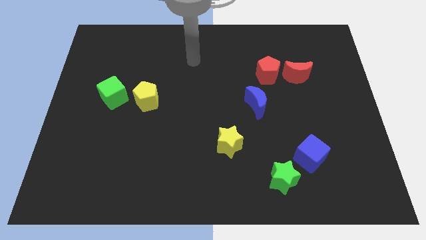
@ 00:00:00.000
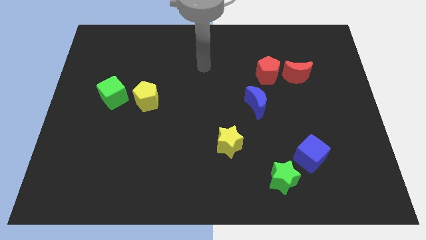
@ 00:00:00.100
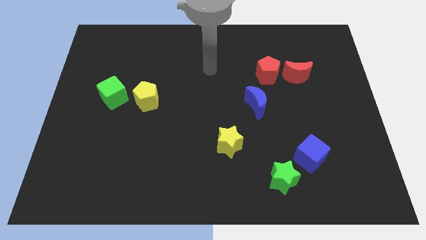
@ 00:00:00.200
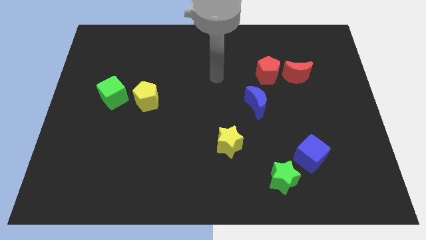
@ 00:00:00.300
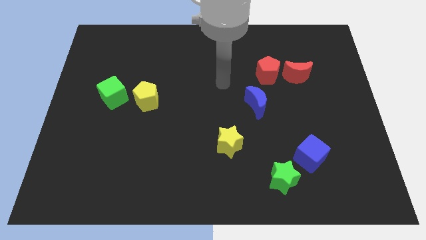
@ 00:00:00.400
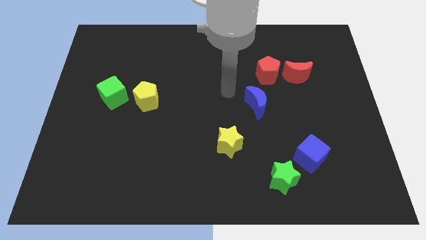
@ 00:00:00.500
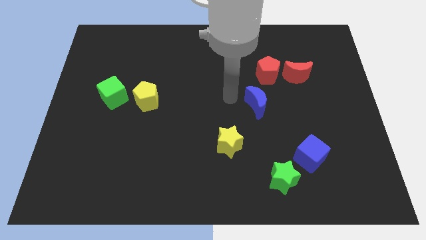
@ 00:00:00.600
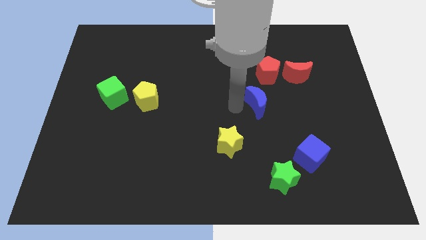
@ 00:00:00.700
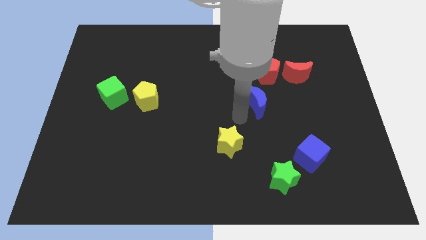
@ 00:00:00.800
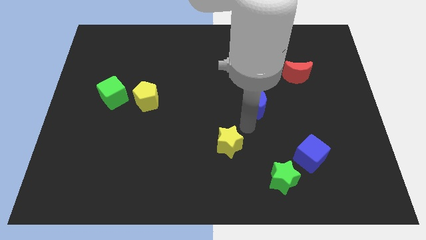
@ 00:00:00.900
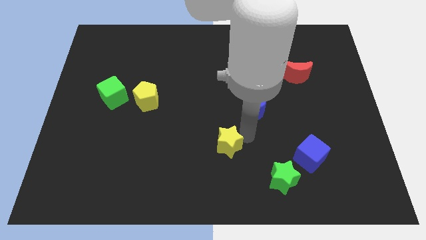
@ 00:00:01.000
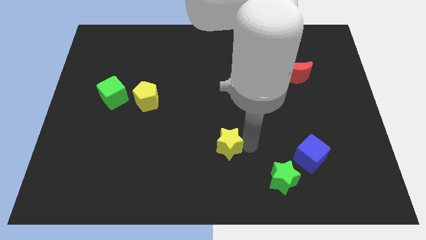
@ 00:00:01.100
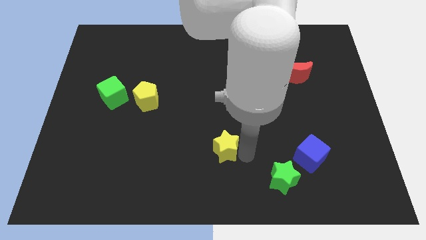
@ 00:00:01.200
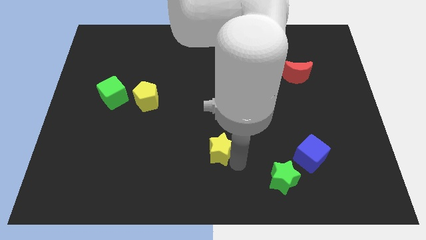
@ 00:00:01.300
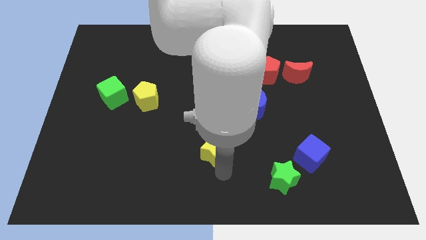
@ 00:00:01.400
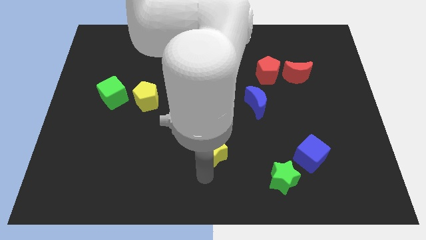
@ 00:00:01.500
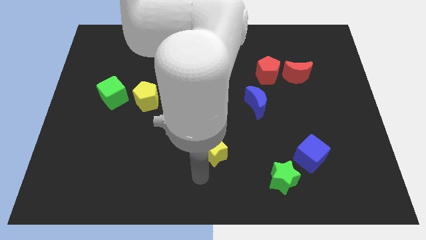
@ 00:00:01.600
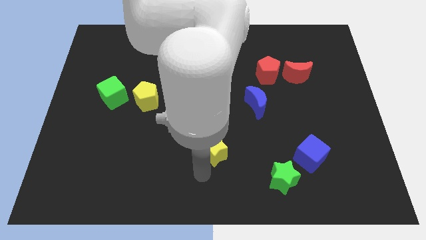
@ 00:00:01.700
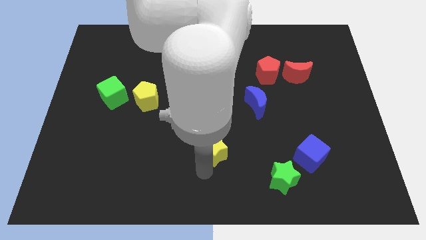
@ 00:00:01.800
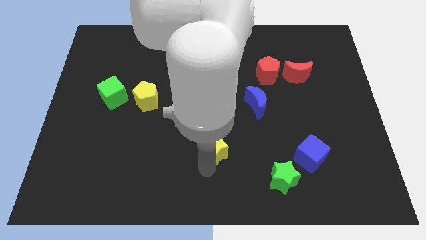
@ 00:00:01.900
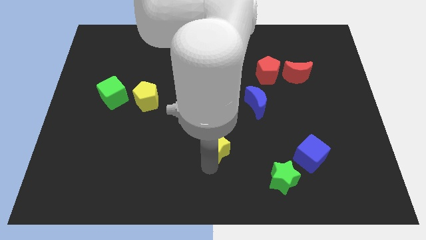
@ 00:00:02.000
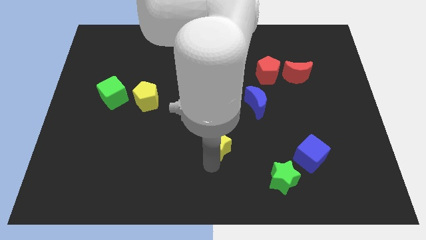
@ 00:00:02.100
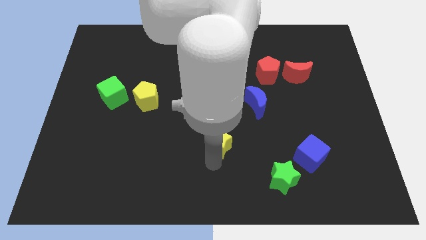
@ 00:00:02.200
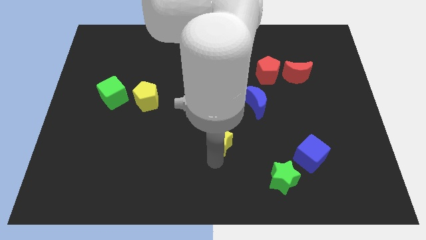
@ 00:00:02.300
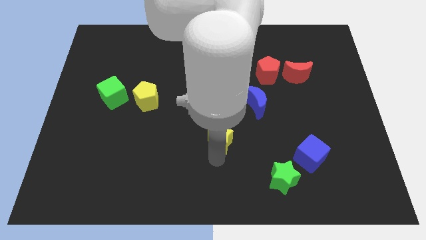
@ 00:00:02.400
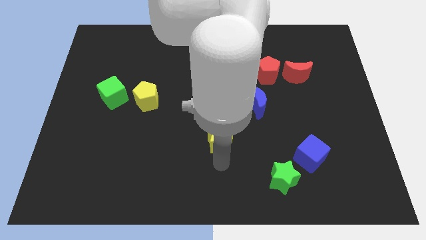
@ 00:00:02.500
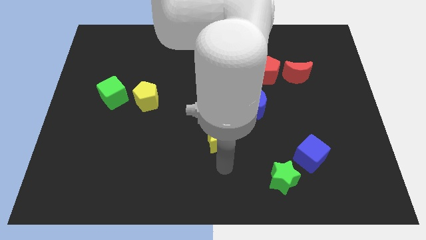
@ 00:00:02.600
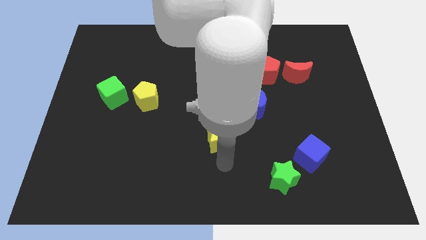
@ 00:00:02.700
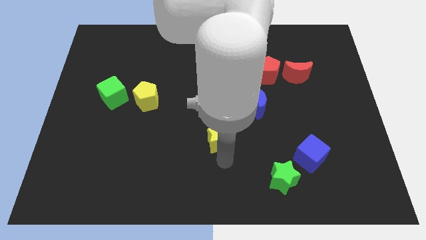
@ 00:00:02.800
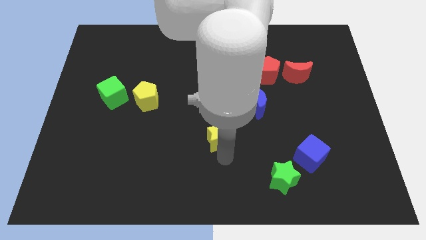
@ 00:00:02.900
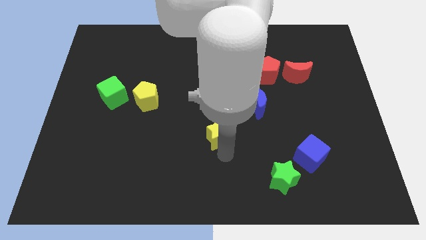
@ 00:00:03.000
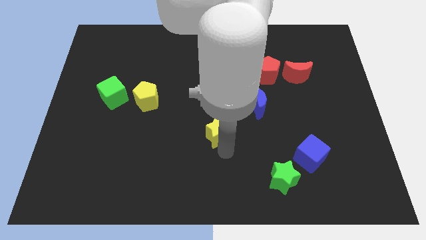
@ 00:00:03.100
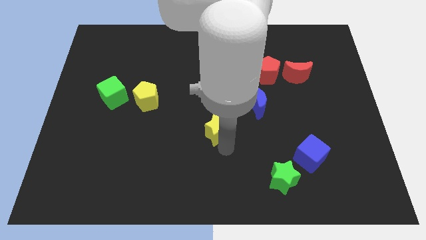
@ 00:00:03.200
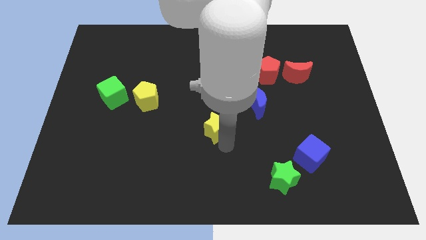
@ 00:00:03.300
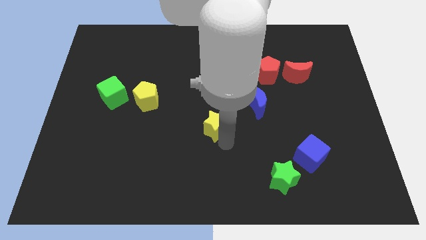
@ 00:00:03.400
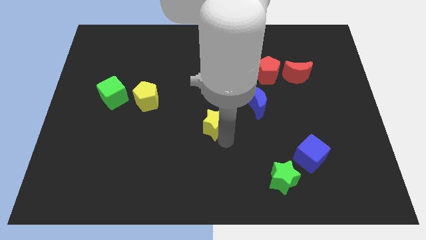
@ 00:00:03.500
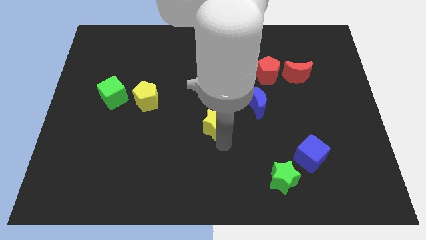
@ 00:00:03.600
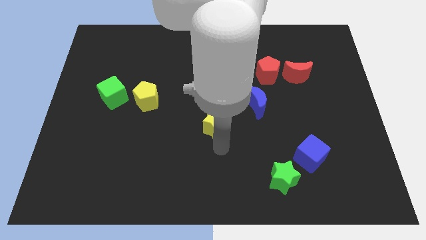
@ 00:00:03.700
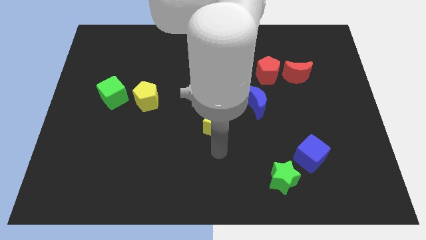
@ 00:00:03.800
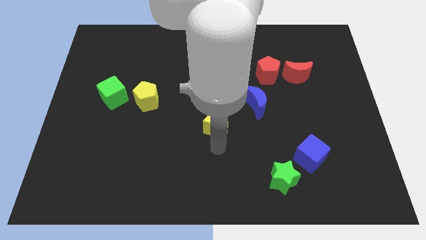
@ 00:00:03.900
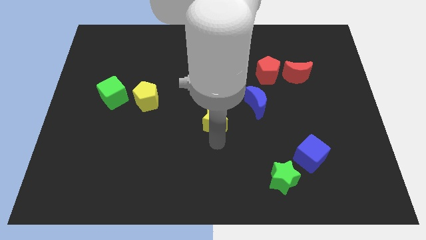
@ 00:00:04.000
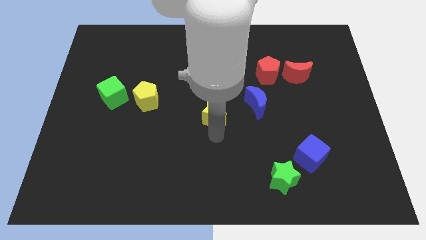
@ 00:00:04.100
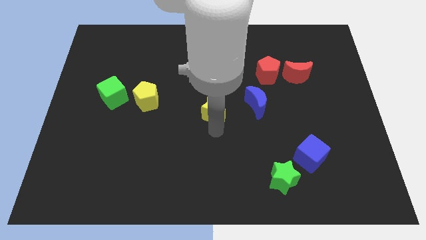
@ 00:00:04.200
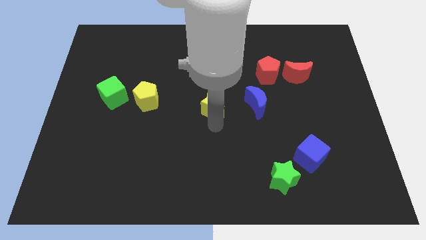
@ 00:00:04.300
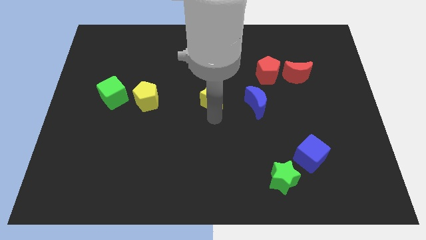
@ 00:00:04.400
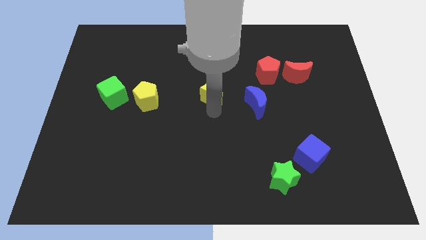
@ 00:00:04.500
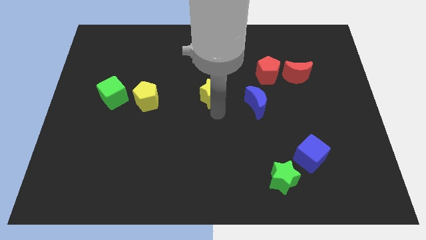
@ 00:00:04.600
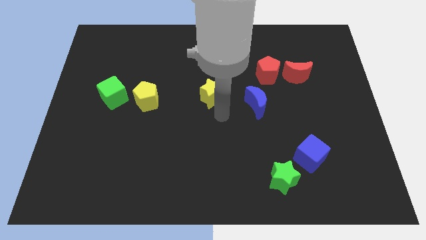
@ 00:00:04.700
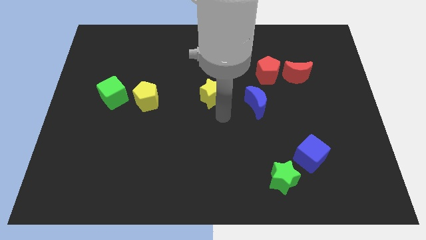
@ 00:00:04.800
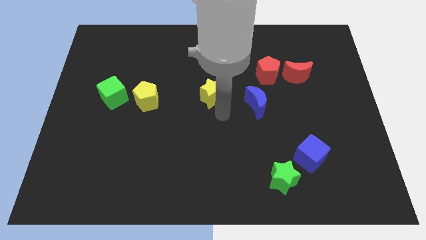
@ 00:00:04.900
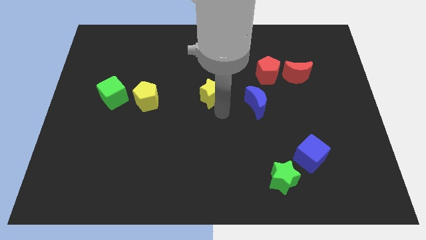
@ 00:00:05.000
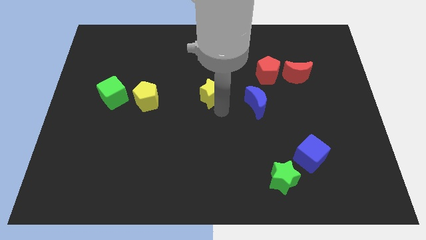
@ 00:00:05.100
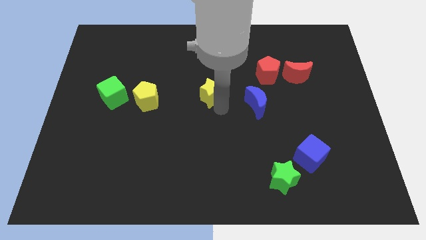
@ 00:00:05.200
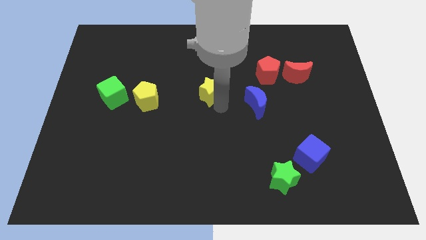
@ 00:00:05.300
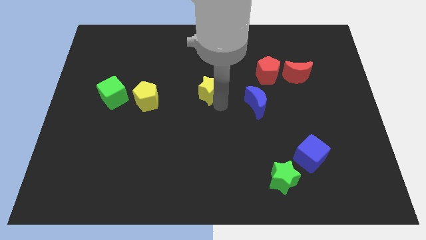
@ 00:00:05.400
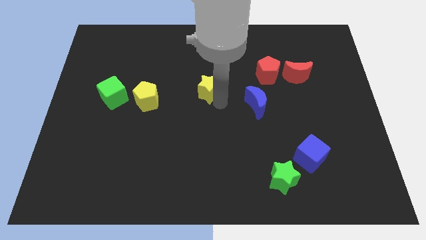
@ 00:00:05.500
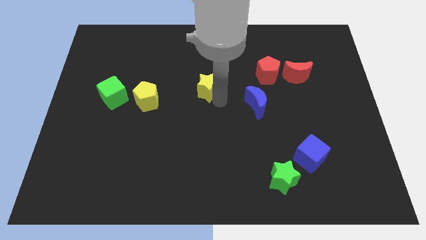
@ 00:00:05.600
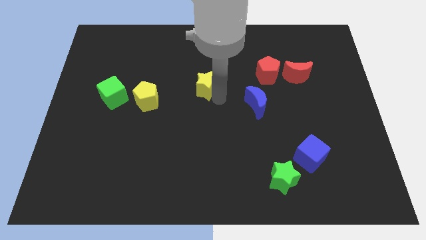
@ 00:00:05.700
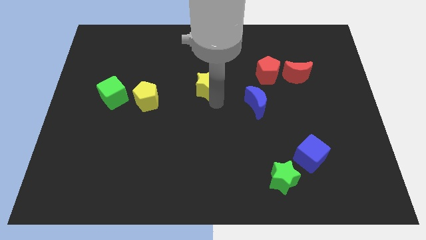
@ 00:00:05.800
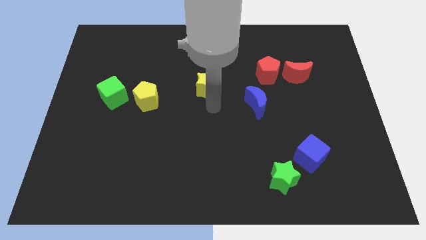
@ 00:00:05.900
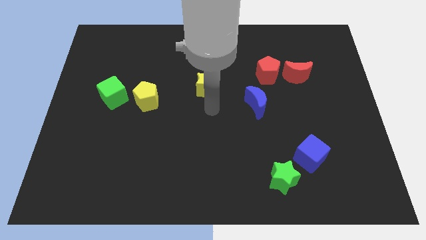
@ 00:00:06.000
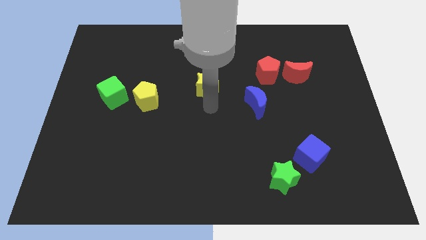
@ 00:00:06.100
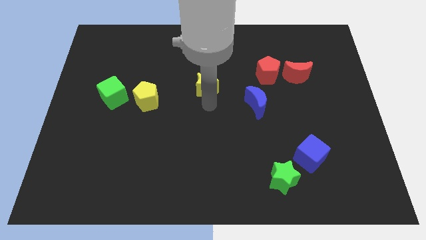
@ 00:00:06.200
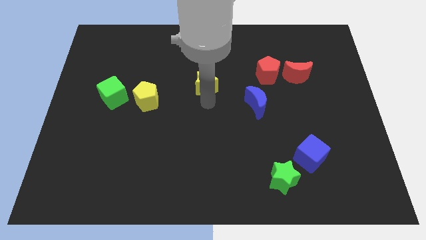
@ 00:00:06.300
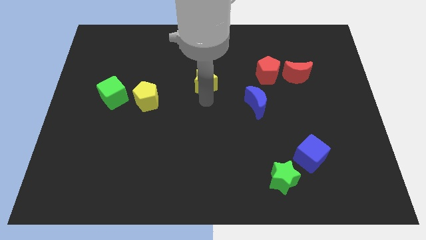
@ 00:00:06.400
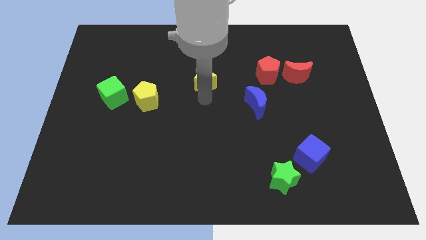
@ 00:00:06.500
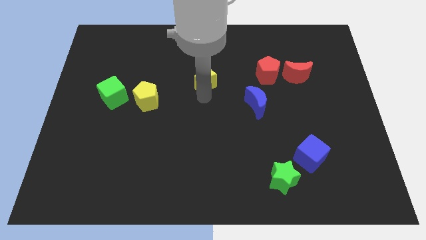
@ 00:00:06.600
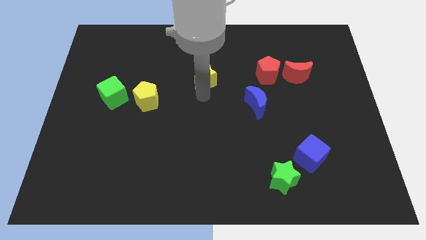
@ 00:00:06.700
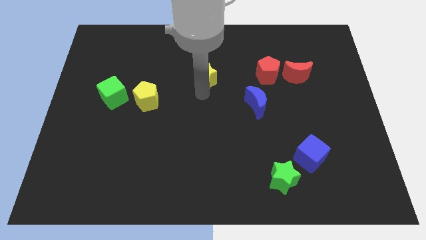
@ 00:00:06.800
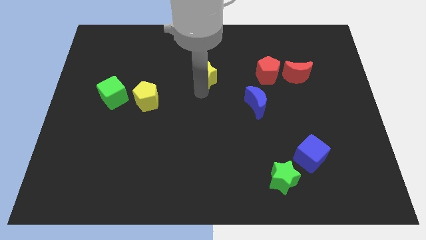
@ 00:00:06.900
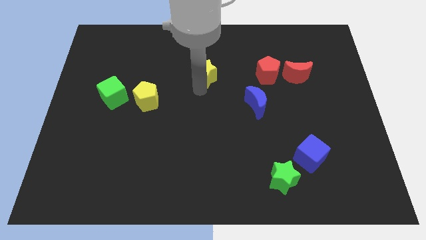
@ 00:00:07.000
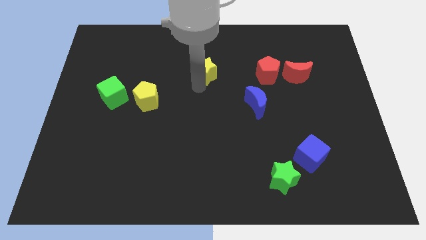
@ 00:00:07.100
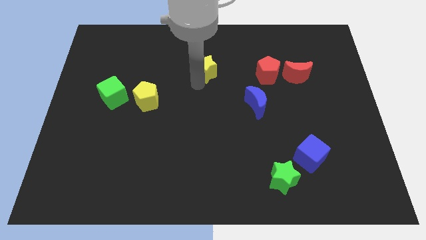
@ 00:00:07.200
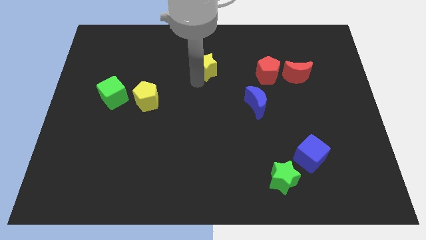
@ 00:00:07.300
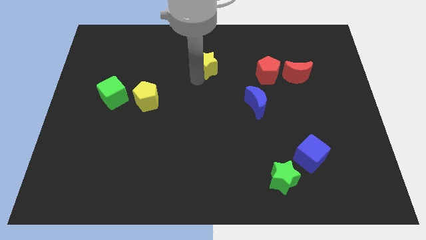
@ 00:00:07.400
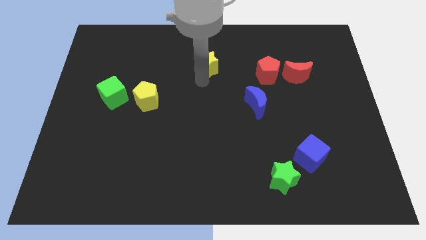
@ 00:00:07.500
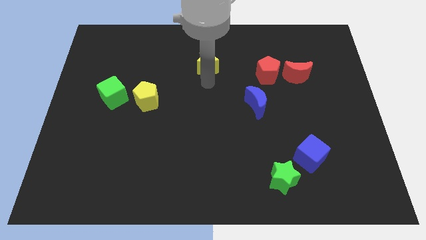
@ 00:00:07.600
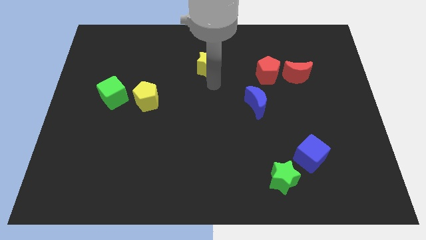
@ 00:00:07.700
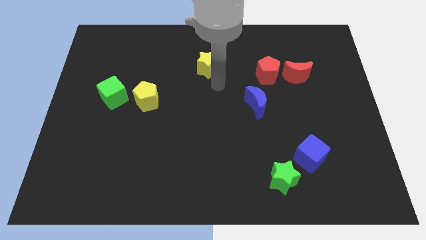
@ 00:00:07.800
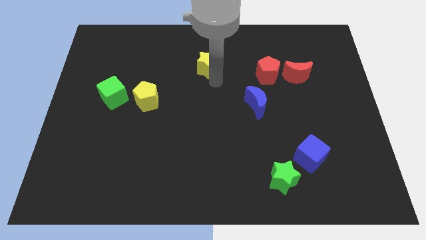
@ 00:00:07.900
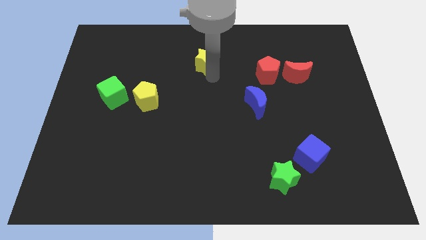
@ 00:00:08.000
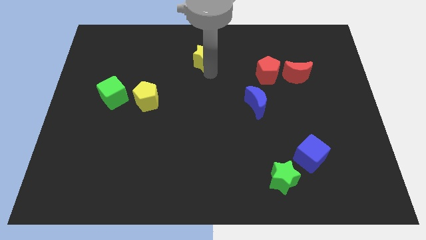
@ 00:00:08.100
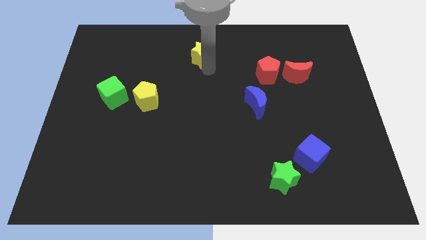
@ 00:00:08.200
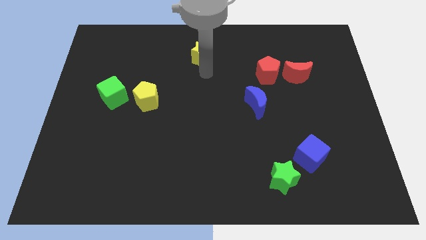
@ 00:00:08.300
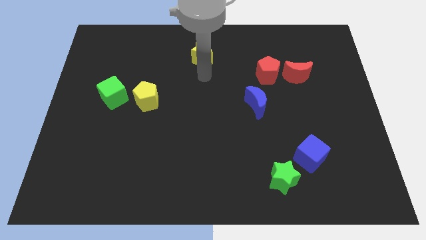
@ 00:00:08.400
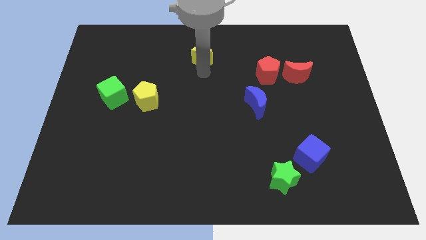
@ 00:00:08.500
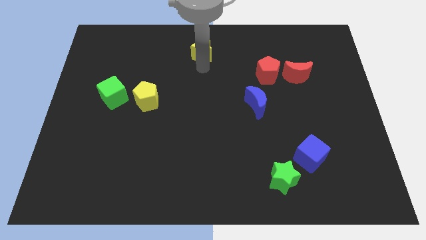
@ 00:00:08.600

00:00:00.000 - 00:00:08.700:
put the yellow star to the towards your base
